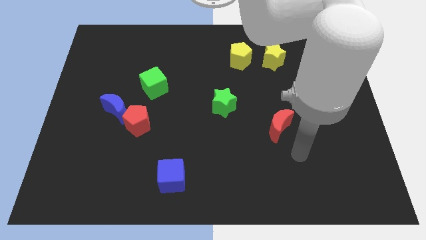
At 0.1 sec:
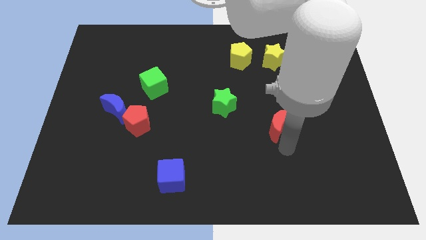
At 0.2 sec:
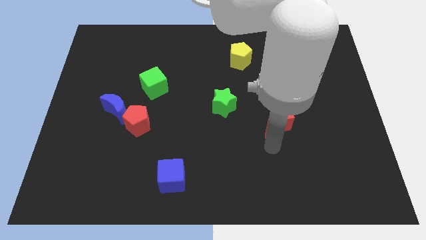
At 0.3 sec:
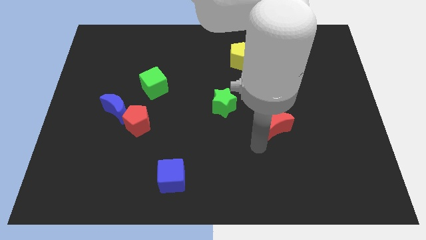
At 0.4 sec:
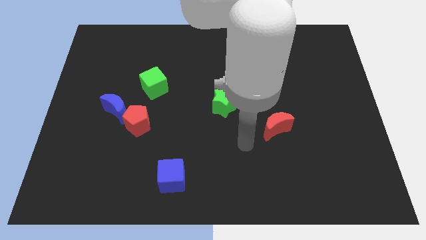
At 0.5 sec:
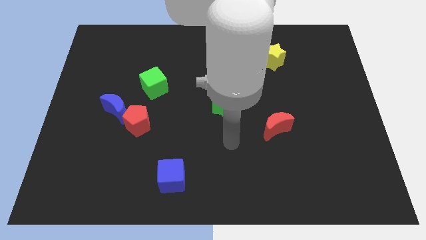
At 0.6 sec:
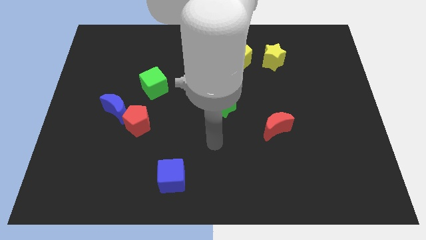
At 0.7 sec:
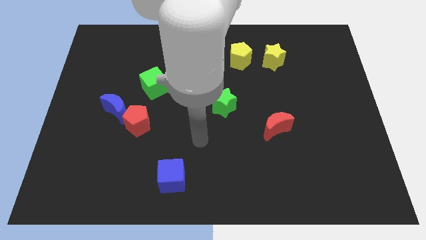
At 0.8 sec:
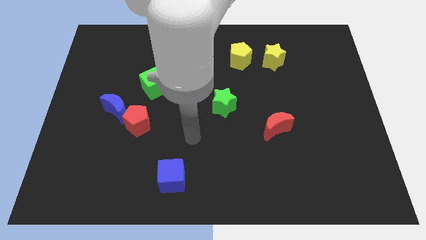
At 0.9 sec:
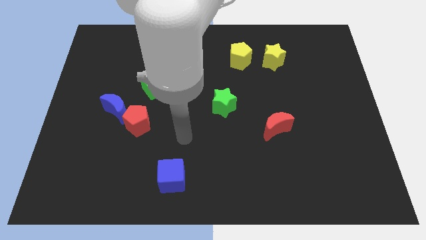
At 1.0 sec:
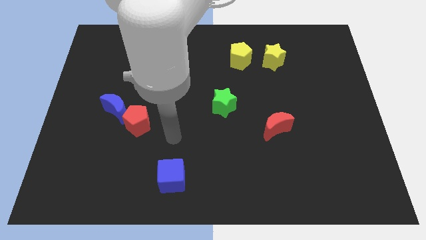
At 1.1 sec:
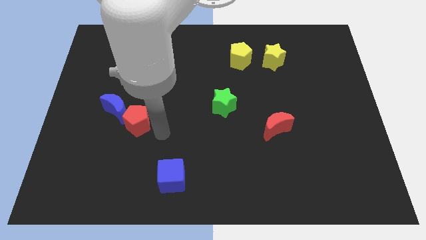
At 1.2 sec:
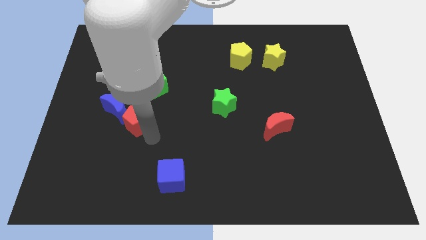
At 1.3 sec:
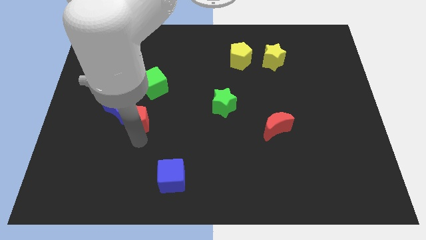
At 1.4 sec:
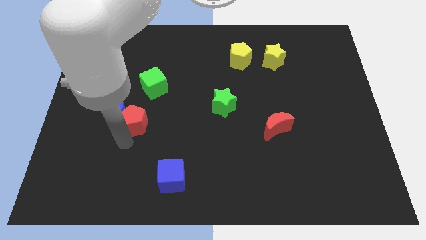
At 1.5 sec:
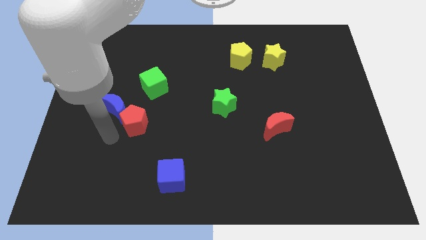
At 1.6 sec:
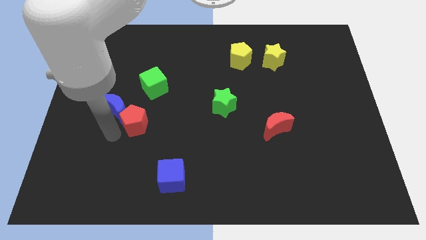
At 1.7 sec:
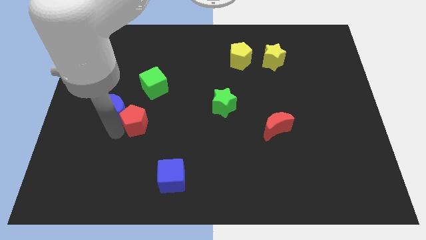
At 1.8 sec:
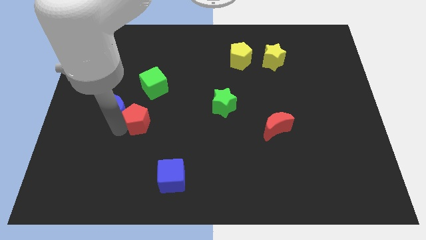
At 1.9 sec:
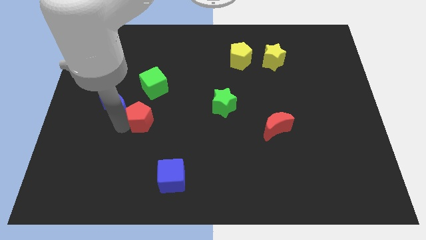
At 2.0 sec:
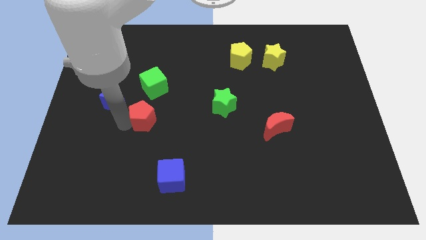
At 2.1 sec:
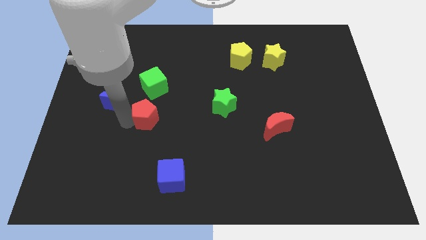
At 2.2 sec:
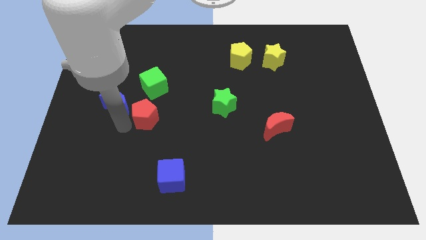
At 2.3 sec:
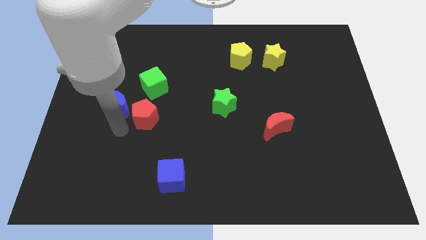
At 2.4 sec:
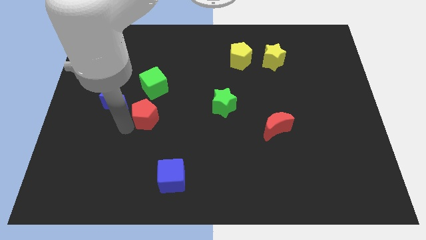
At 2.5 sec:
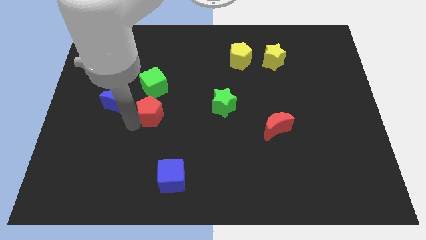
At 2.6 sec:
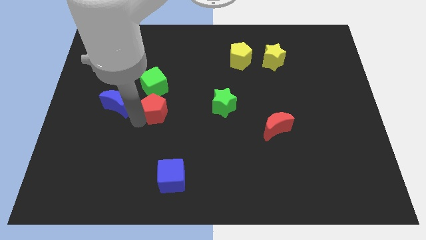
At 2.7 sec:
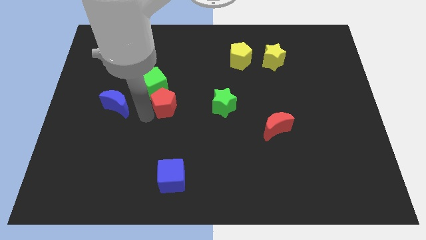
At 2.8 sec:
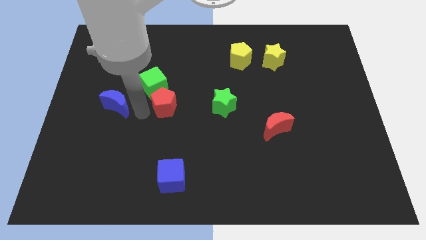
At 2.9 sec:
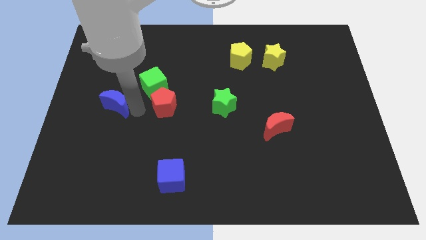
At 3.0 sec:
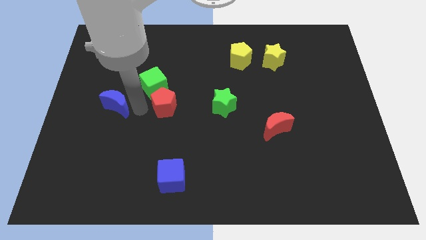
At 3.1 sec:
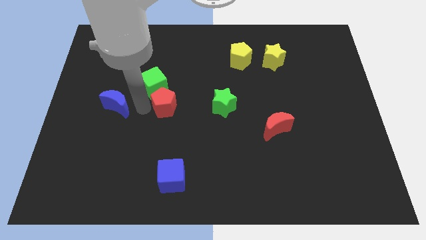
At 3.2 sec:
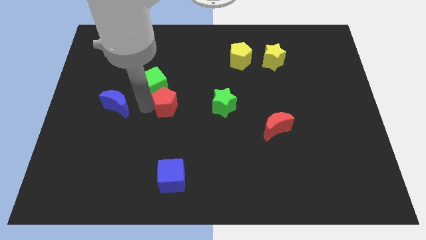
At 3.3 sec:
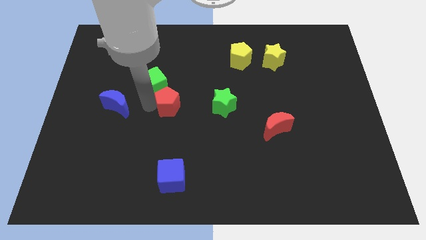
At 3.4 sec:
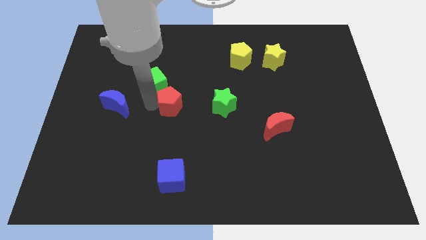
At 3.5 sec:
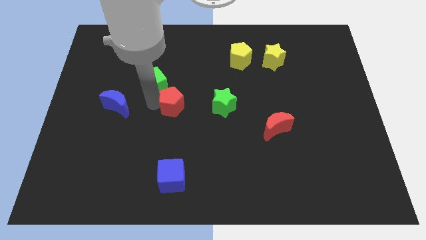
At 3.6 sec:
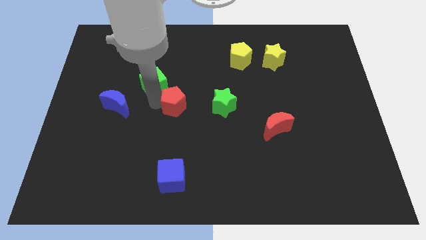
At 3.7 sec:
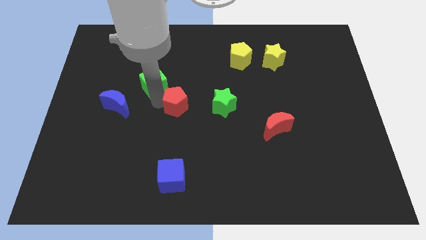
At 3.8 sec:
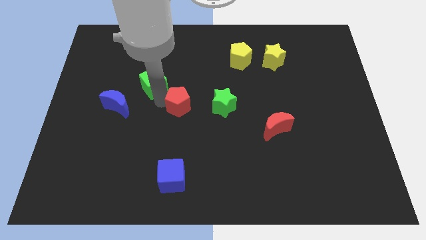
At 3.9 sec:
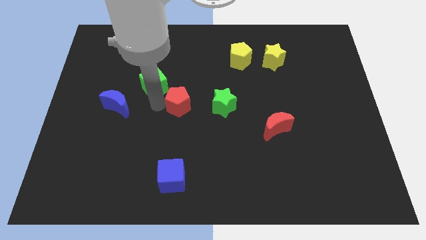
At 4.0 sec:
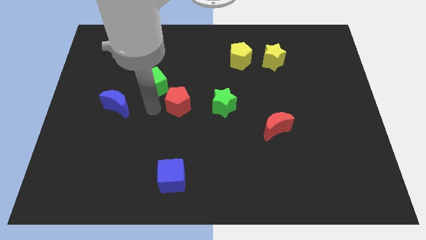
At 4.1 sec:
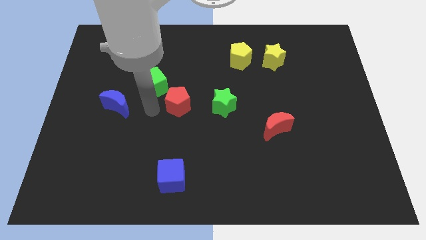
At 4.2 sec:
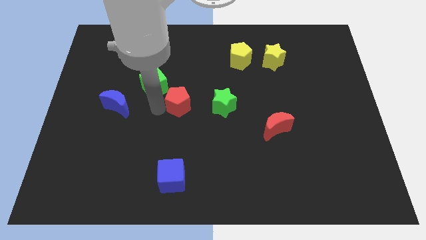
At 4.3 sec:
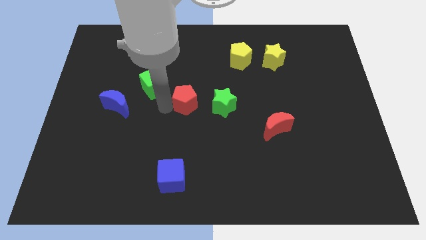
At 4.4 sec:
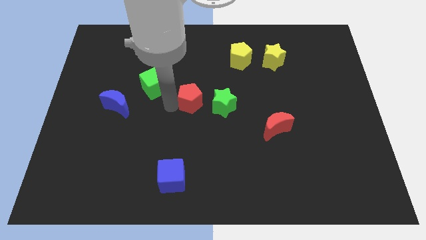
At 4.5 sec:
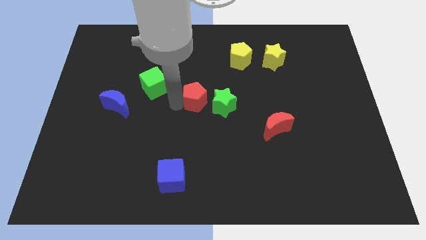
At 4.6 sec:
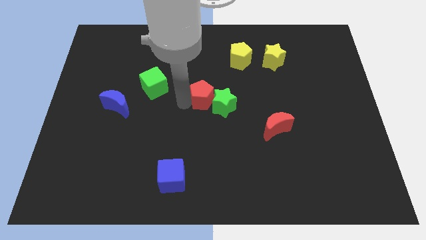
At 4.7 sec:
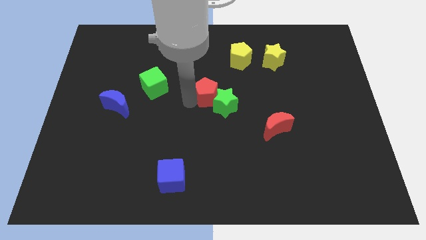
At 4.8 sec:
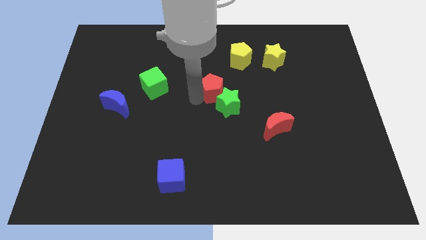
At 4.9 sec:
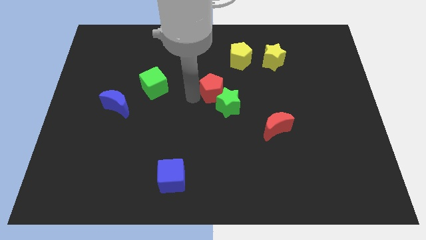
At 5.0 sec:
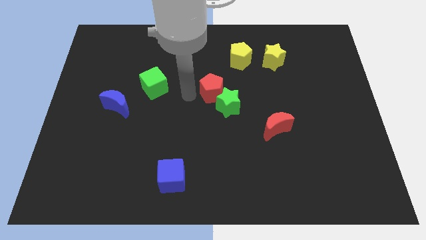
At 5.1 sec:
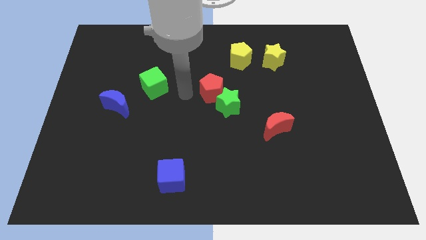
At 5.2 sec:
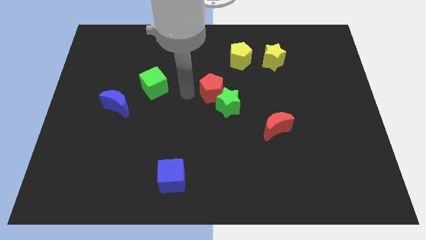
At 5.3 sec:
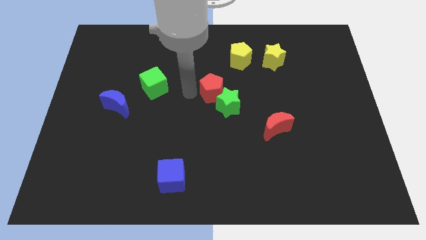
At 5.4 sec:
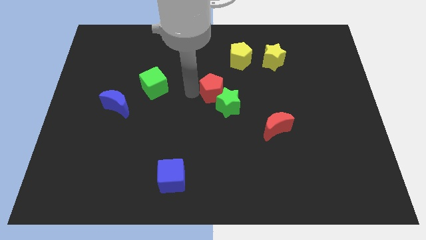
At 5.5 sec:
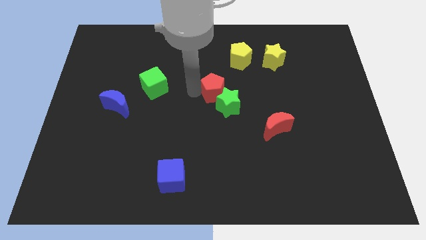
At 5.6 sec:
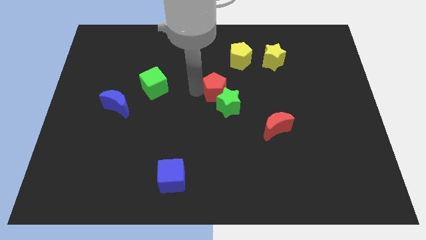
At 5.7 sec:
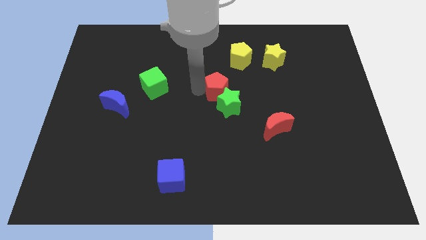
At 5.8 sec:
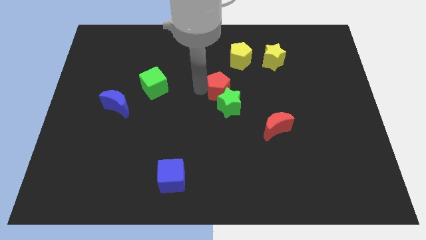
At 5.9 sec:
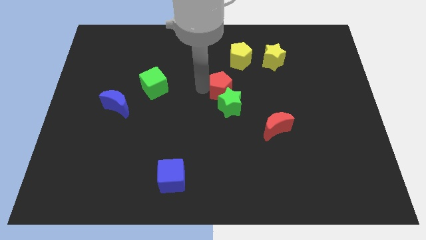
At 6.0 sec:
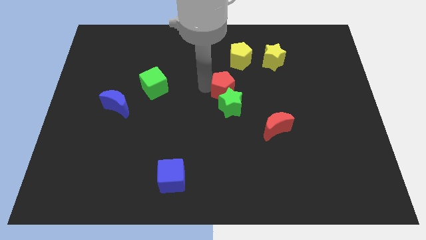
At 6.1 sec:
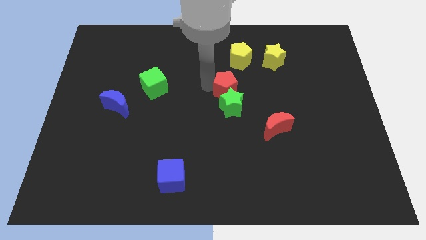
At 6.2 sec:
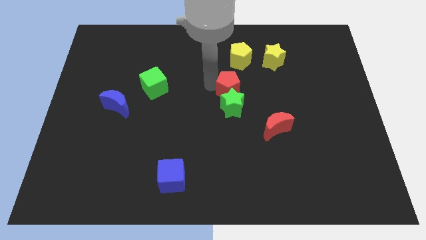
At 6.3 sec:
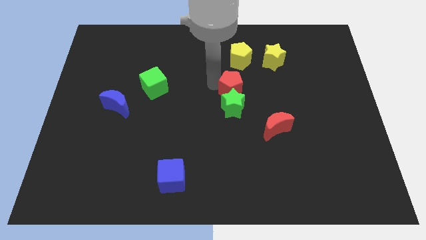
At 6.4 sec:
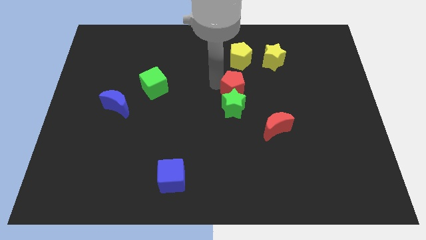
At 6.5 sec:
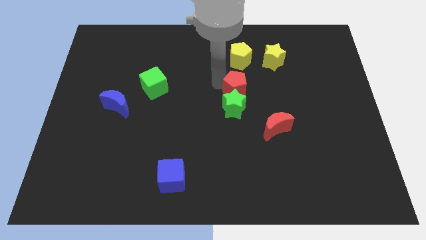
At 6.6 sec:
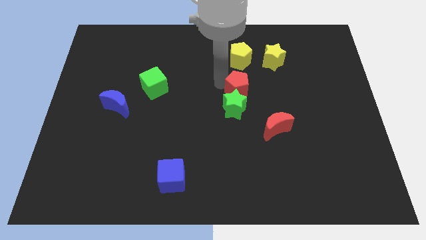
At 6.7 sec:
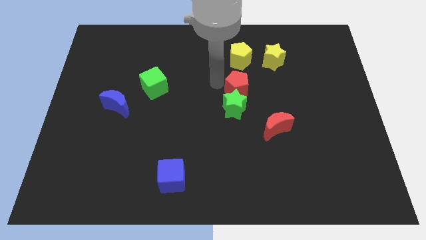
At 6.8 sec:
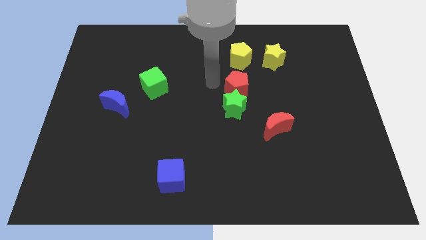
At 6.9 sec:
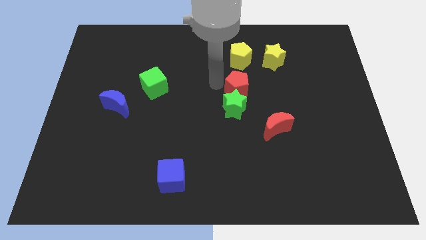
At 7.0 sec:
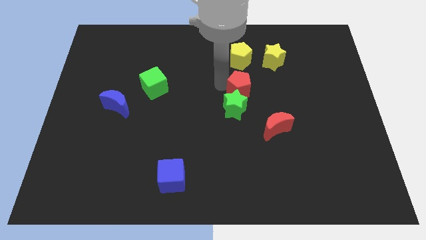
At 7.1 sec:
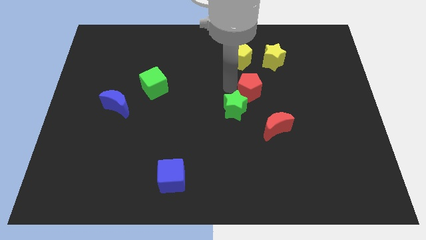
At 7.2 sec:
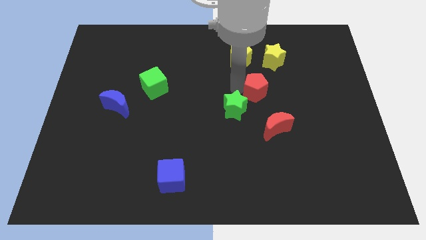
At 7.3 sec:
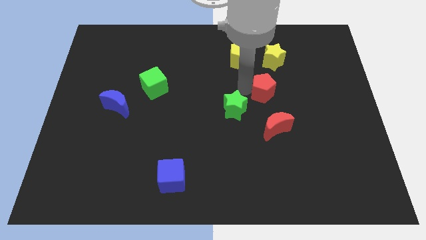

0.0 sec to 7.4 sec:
push the red pentagon to the bottom side of the yellow star
